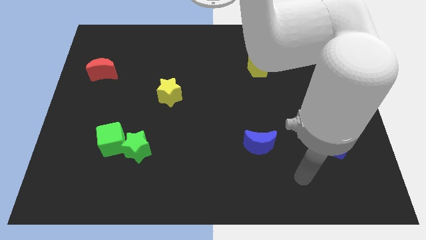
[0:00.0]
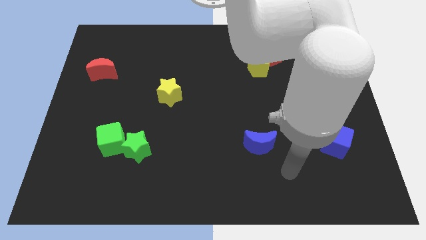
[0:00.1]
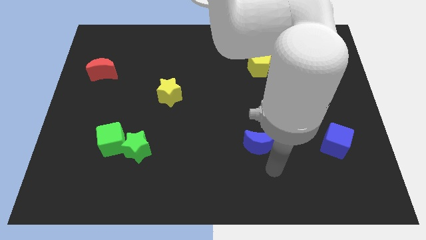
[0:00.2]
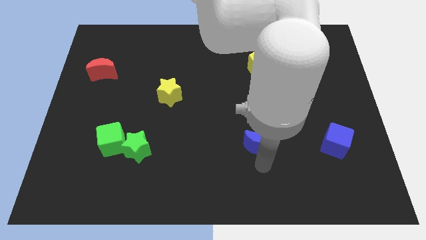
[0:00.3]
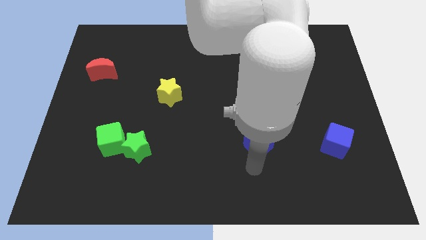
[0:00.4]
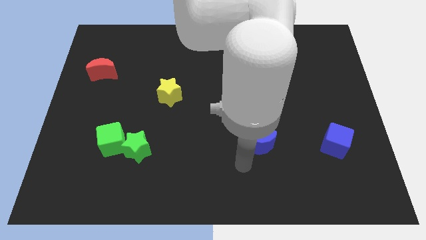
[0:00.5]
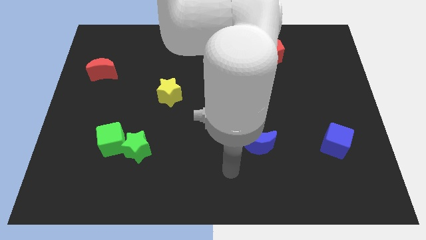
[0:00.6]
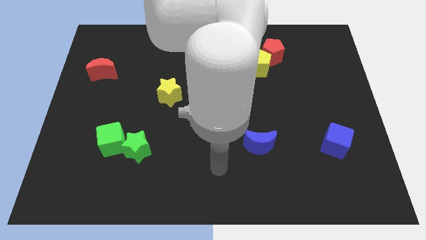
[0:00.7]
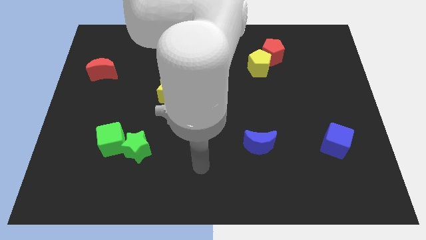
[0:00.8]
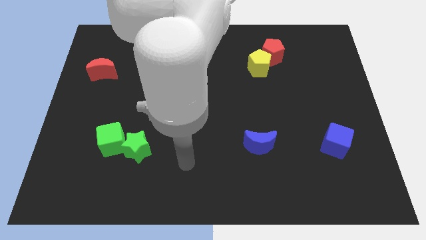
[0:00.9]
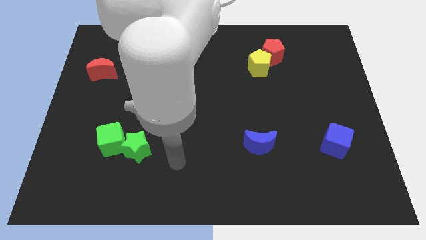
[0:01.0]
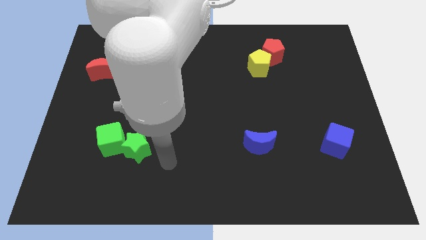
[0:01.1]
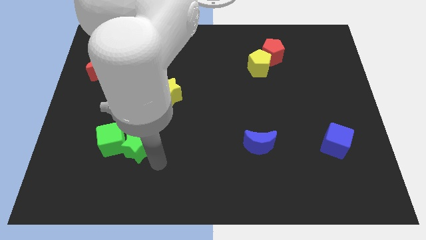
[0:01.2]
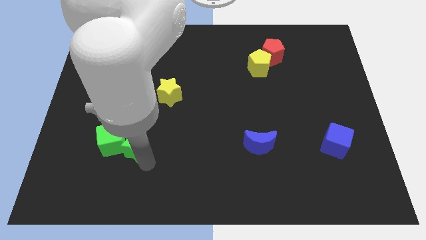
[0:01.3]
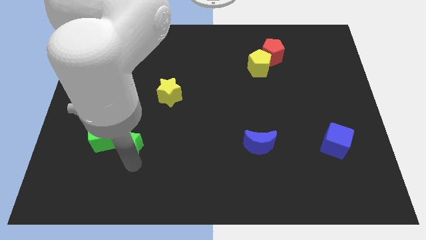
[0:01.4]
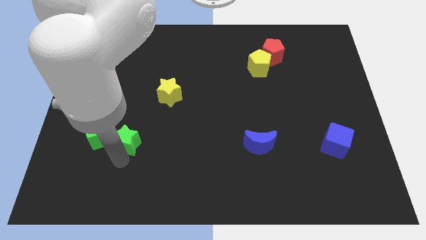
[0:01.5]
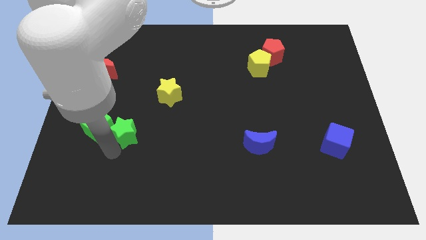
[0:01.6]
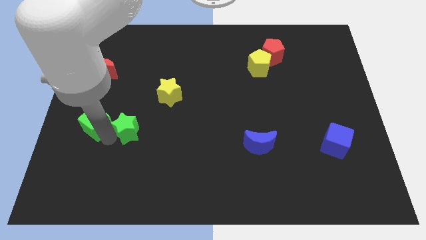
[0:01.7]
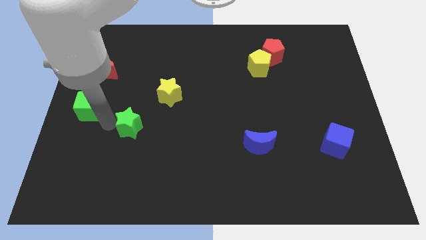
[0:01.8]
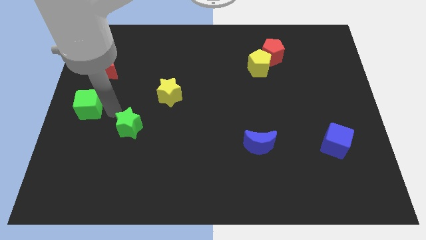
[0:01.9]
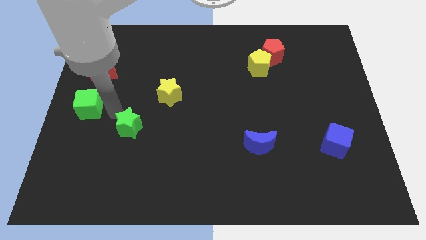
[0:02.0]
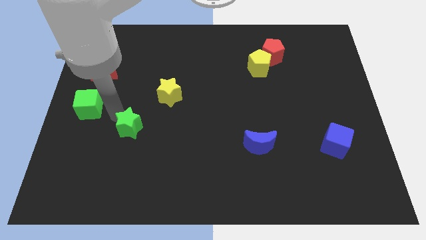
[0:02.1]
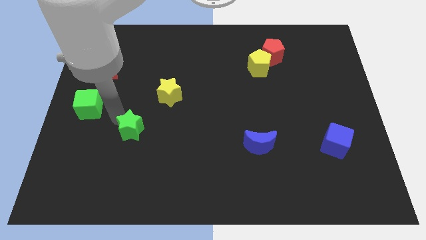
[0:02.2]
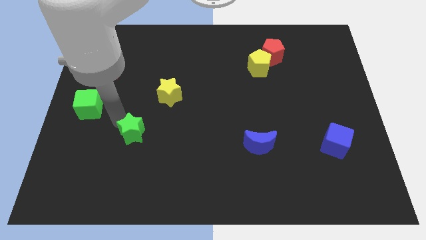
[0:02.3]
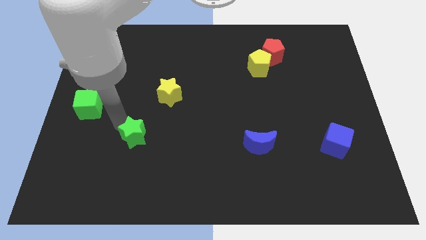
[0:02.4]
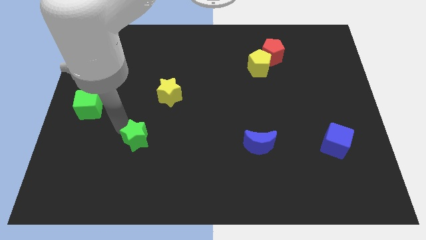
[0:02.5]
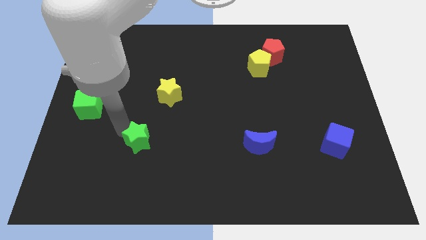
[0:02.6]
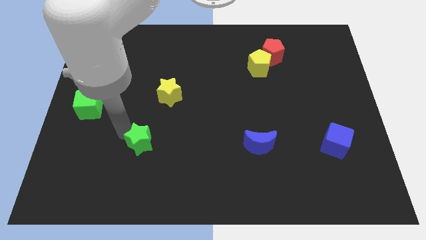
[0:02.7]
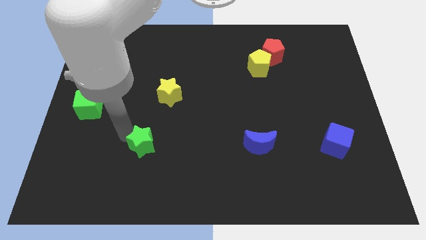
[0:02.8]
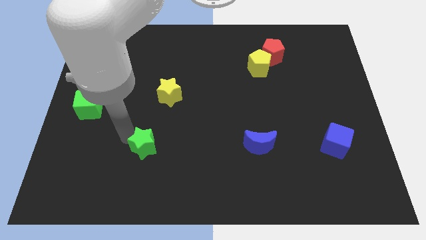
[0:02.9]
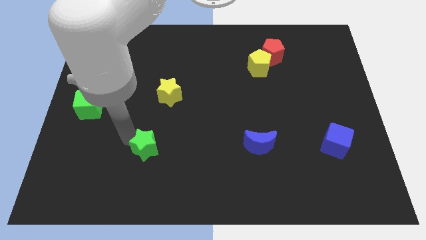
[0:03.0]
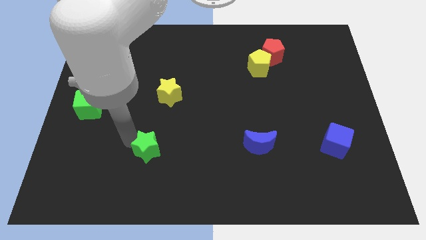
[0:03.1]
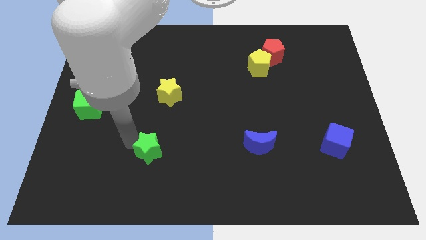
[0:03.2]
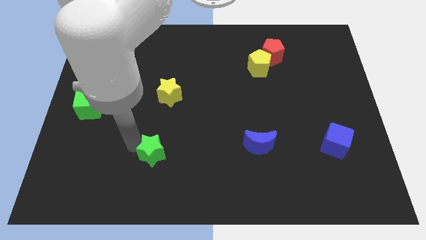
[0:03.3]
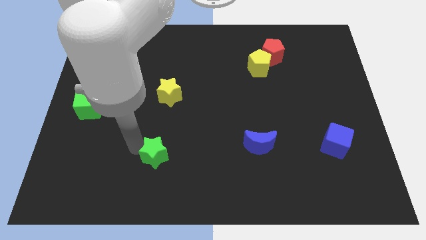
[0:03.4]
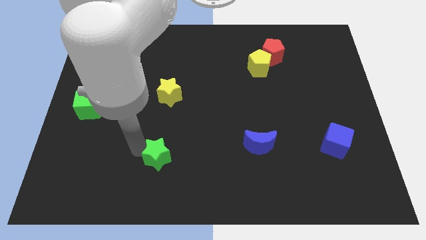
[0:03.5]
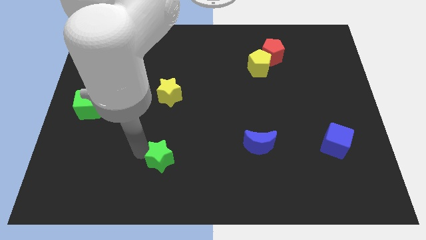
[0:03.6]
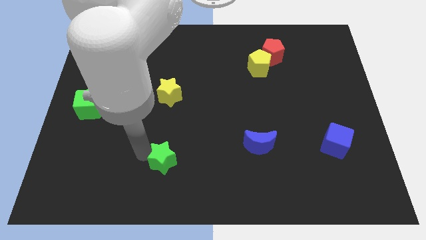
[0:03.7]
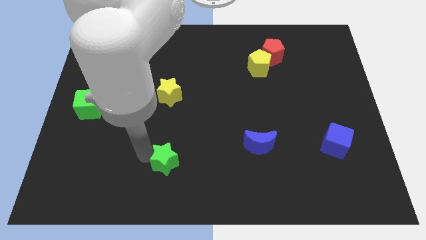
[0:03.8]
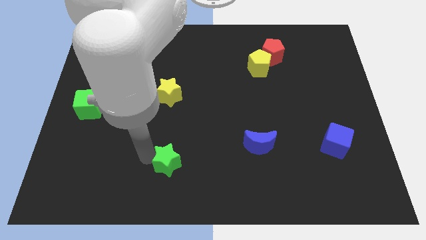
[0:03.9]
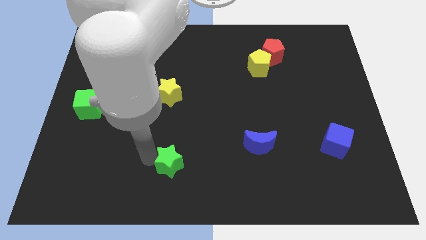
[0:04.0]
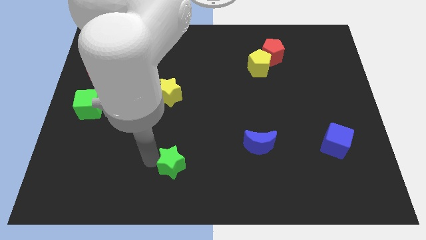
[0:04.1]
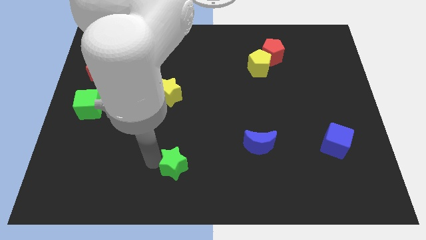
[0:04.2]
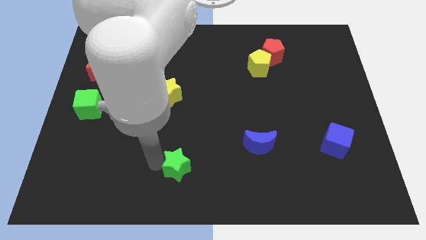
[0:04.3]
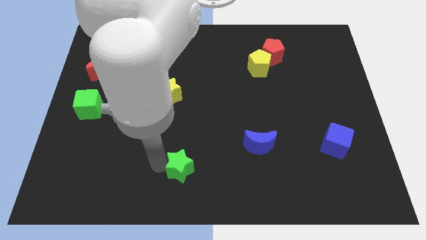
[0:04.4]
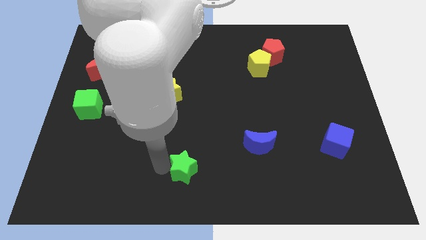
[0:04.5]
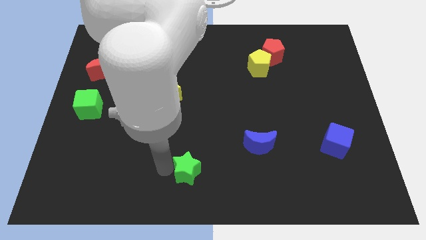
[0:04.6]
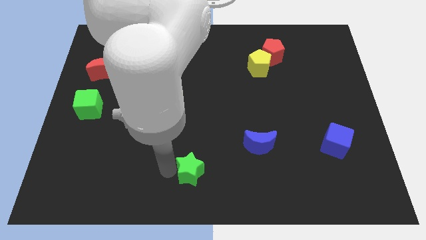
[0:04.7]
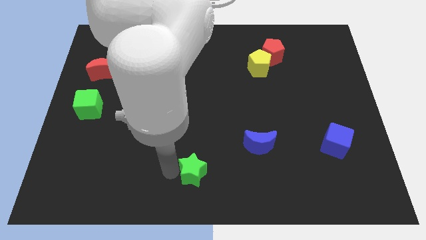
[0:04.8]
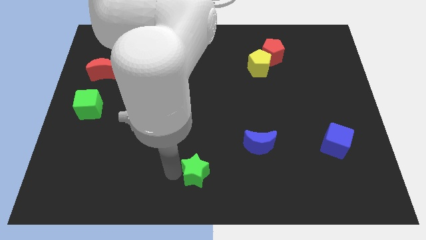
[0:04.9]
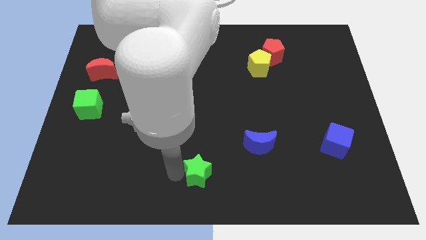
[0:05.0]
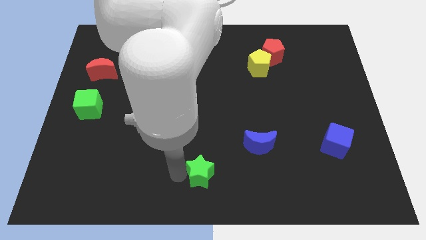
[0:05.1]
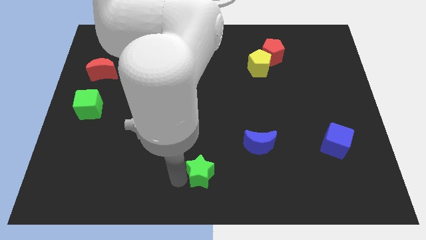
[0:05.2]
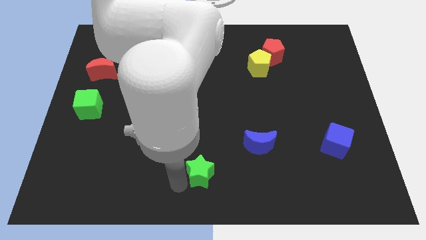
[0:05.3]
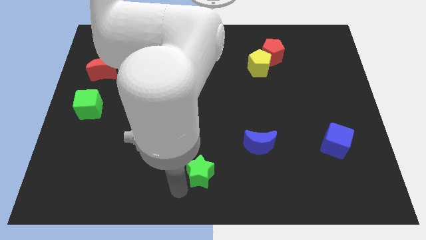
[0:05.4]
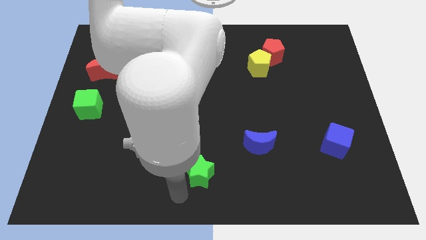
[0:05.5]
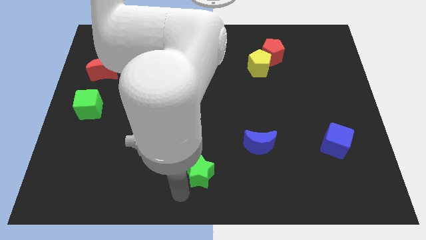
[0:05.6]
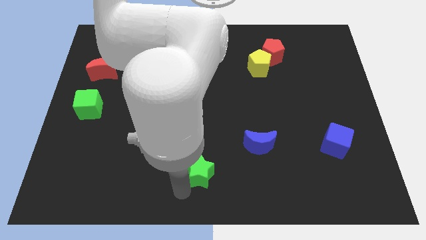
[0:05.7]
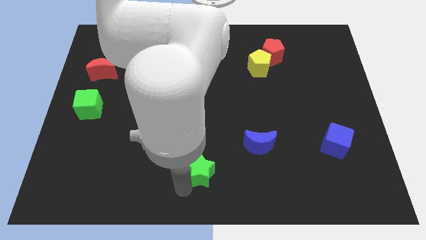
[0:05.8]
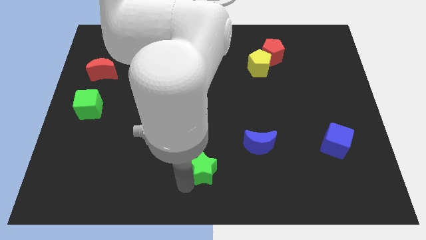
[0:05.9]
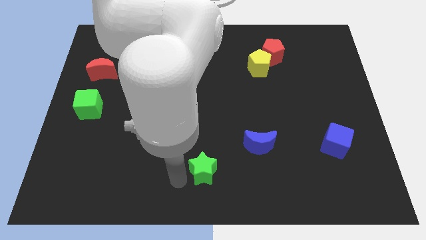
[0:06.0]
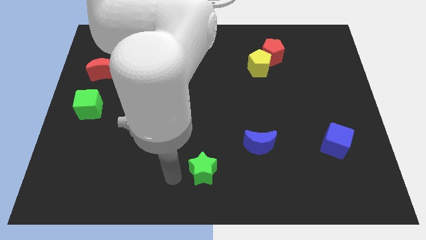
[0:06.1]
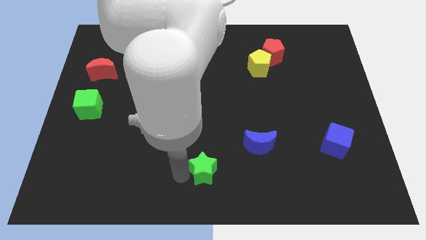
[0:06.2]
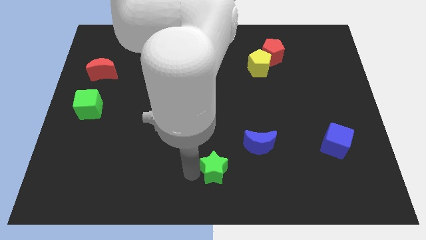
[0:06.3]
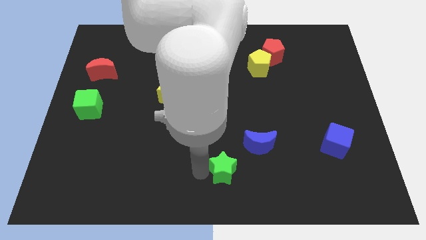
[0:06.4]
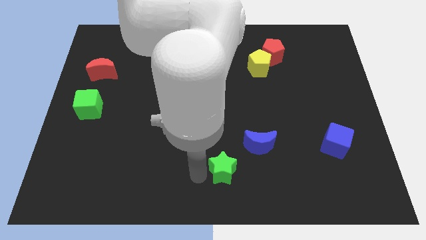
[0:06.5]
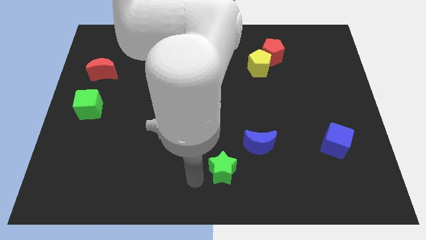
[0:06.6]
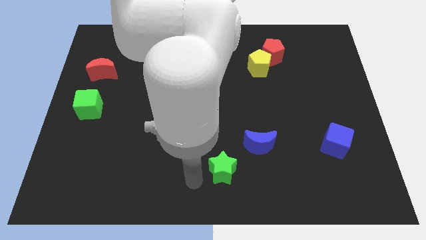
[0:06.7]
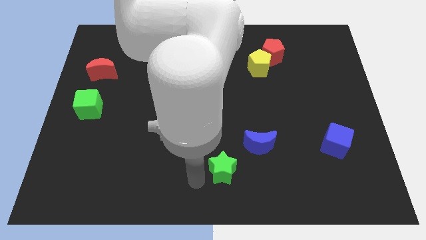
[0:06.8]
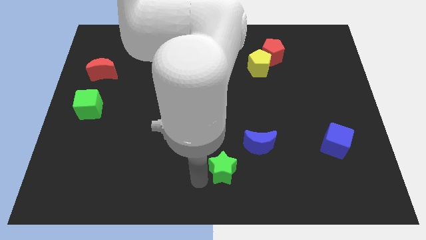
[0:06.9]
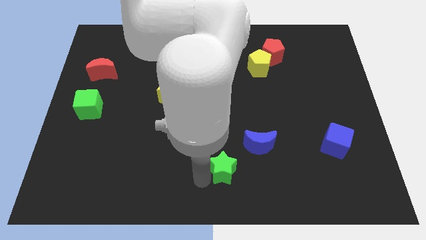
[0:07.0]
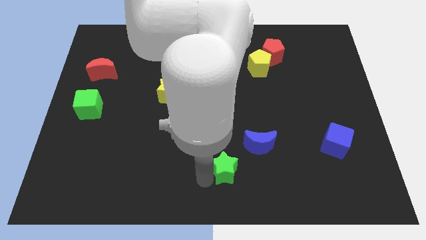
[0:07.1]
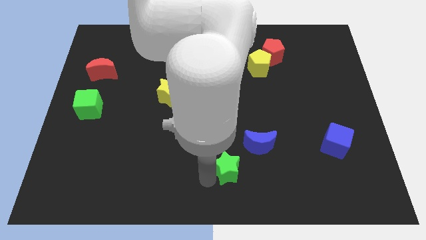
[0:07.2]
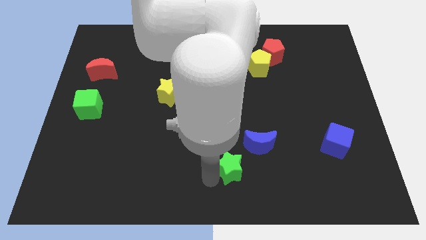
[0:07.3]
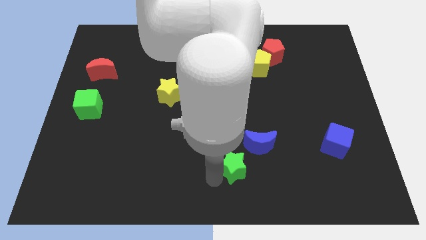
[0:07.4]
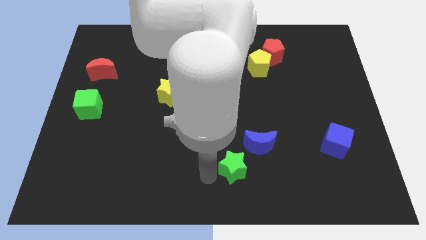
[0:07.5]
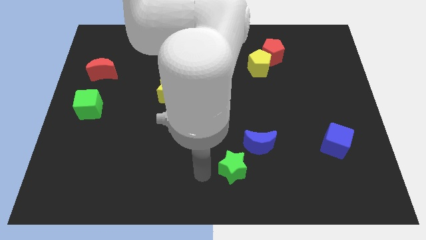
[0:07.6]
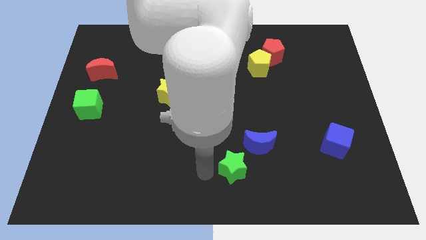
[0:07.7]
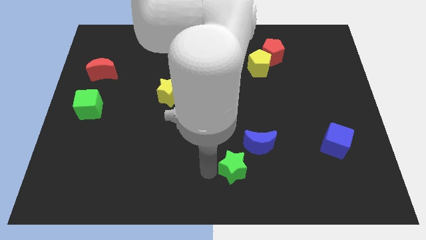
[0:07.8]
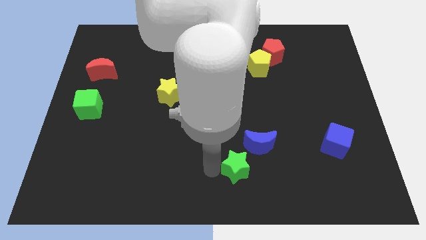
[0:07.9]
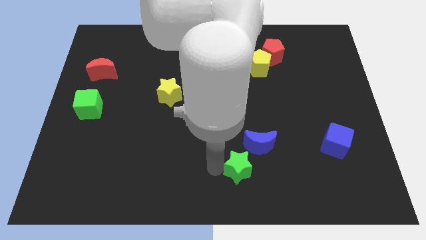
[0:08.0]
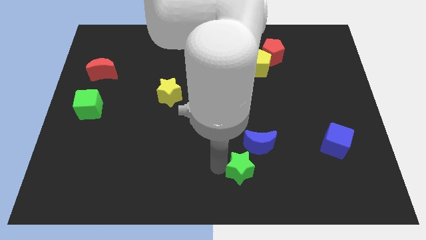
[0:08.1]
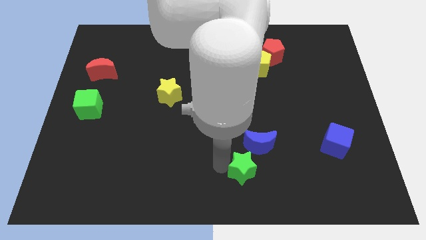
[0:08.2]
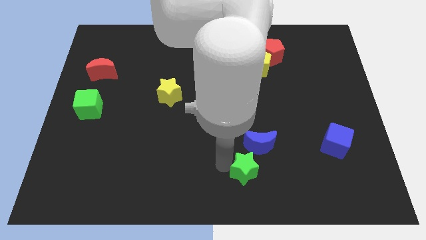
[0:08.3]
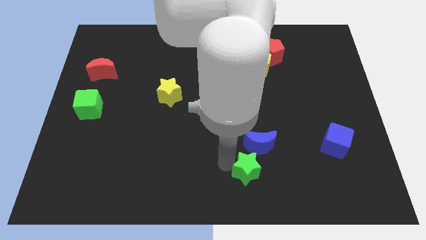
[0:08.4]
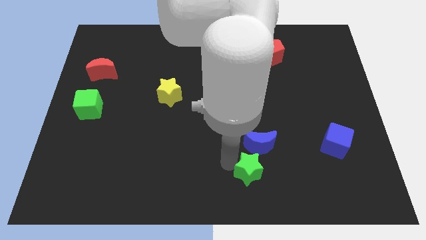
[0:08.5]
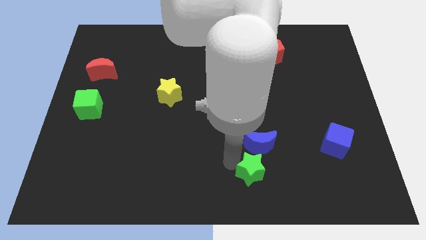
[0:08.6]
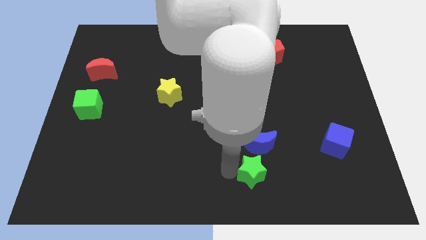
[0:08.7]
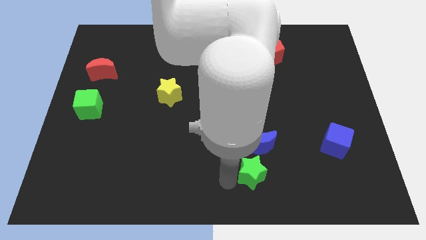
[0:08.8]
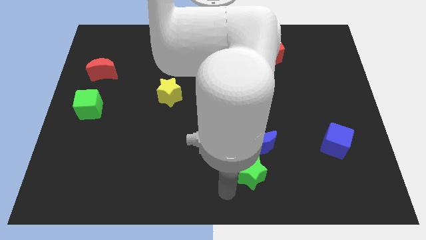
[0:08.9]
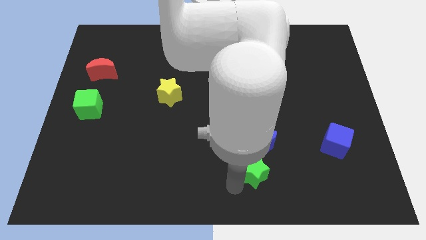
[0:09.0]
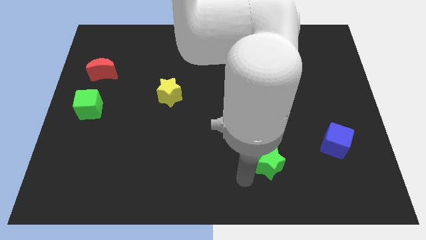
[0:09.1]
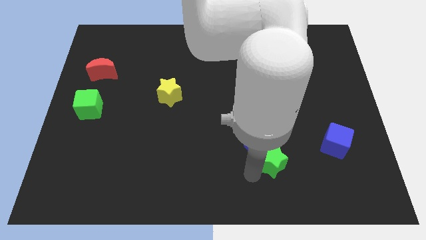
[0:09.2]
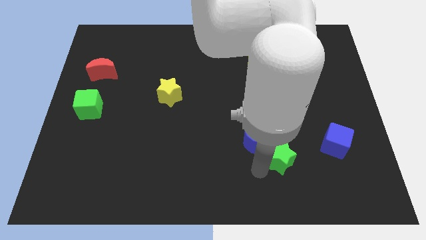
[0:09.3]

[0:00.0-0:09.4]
slide the green star to the left side of the blue cube
